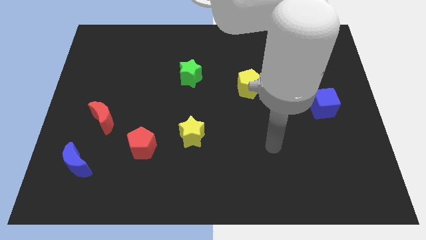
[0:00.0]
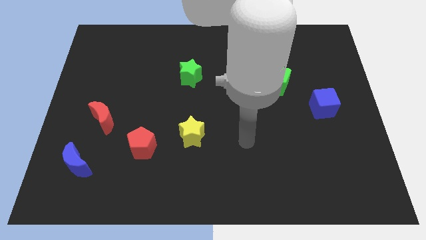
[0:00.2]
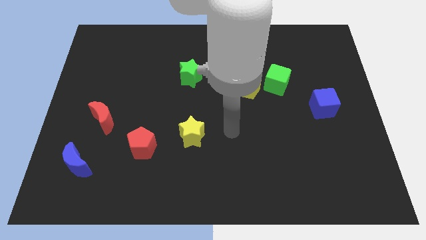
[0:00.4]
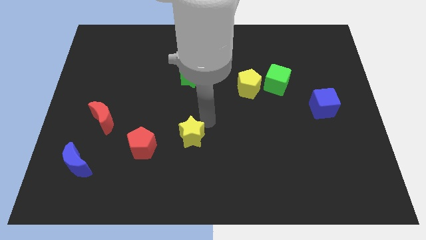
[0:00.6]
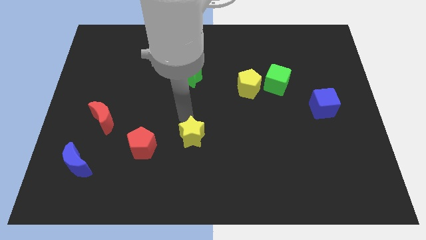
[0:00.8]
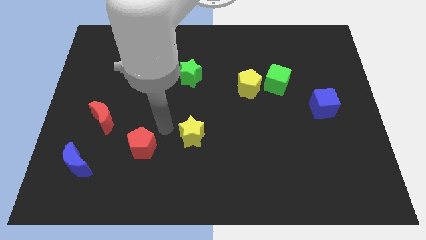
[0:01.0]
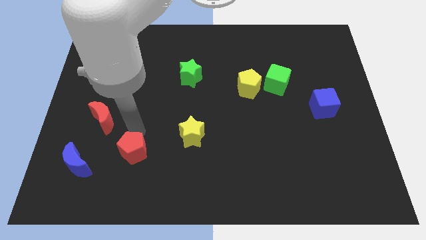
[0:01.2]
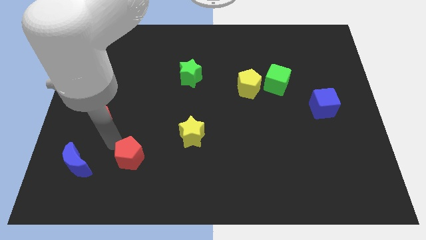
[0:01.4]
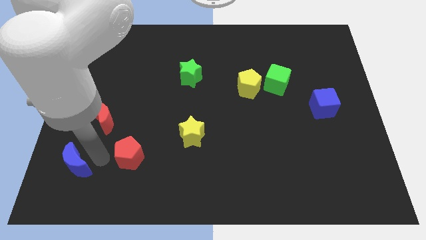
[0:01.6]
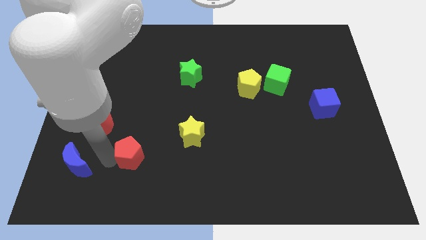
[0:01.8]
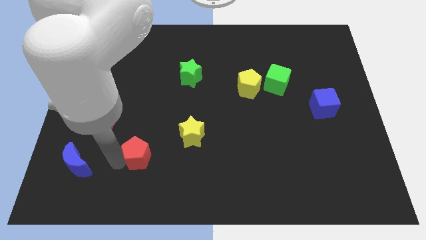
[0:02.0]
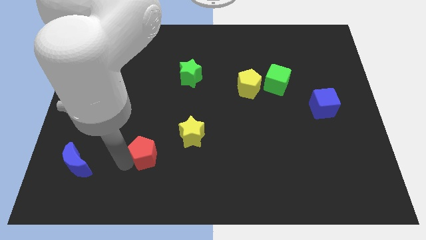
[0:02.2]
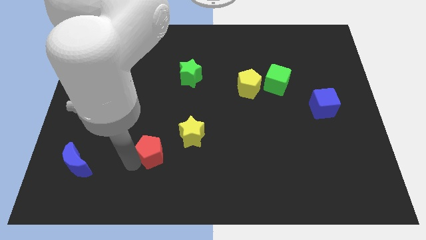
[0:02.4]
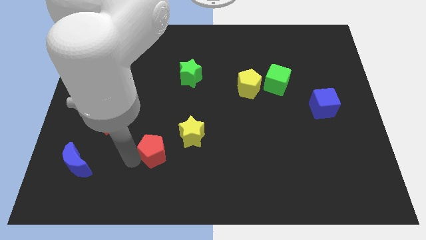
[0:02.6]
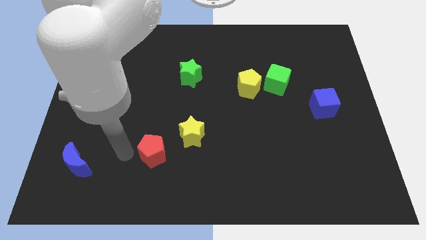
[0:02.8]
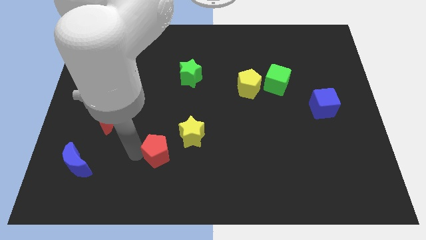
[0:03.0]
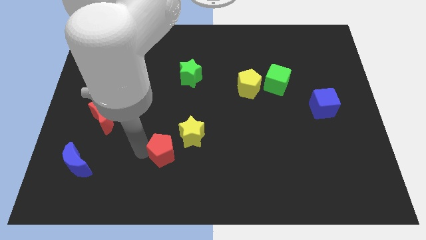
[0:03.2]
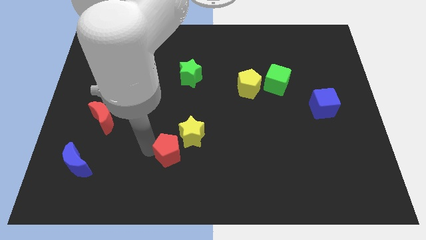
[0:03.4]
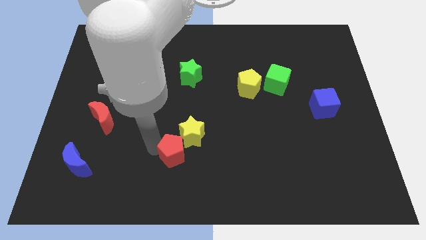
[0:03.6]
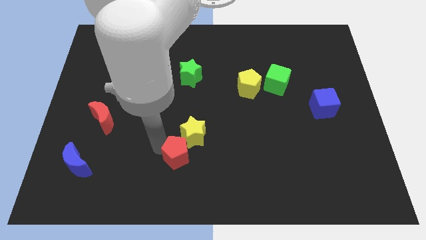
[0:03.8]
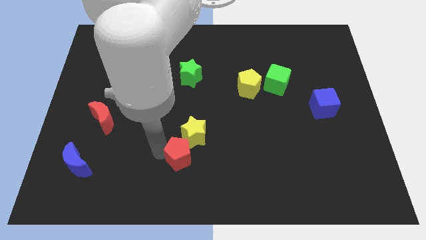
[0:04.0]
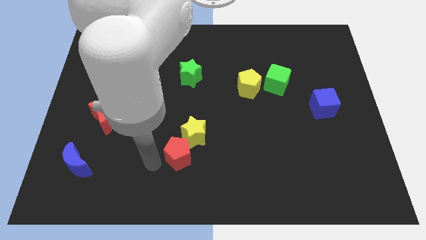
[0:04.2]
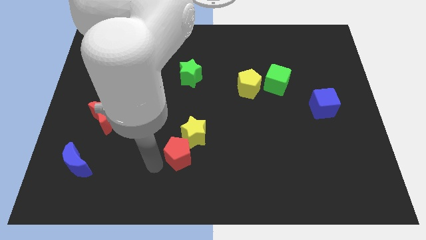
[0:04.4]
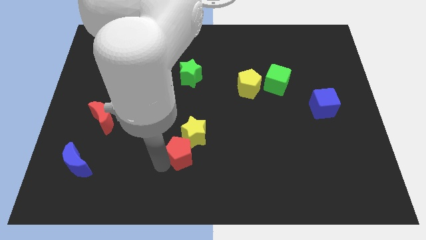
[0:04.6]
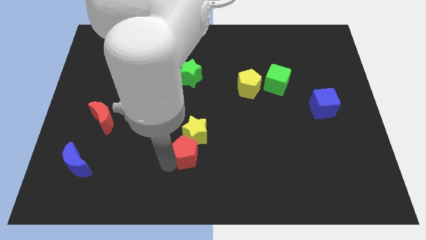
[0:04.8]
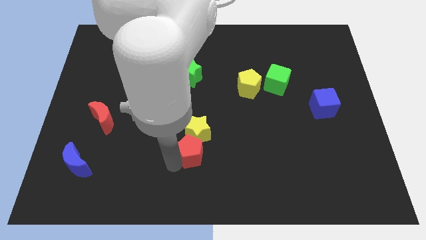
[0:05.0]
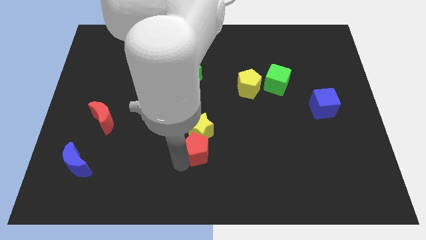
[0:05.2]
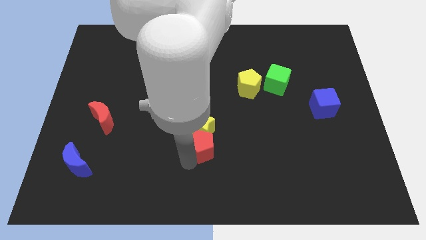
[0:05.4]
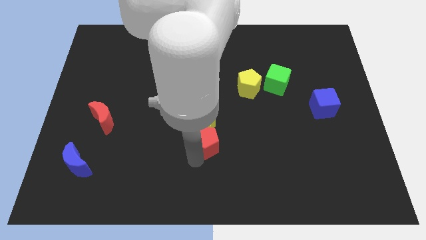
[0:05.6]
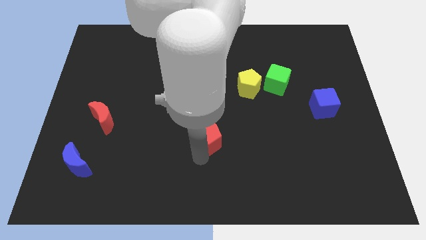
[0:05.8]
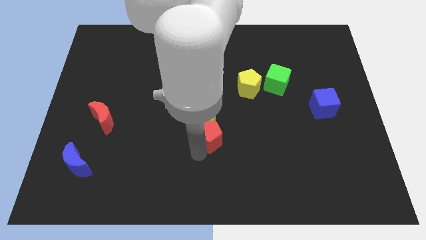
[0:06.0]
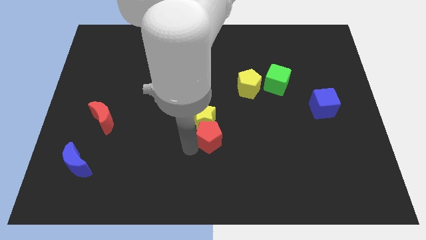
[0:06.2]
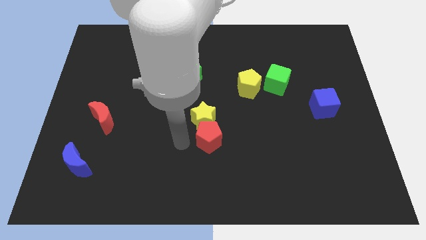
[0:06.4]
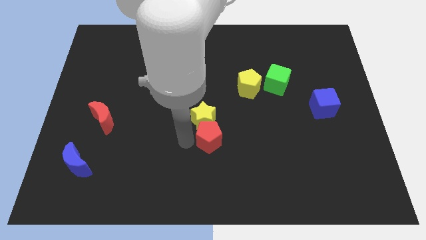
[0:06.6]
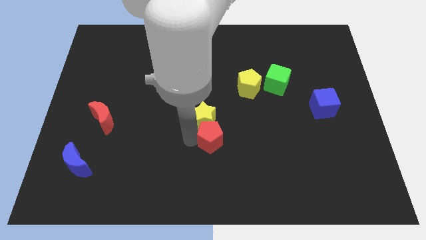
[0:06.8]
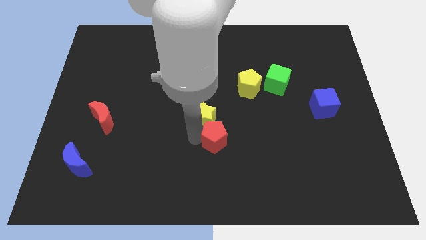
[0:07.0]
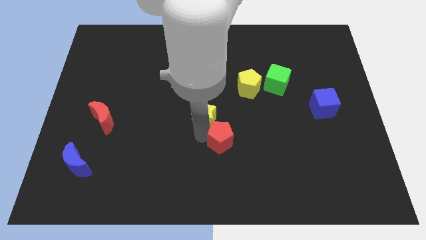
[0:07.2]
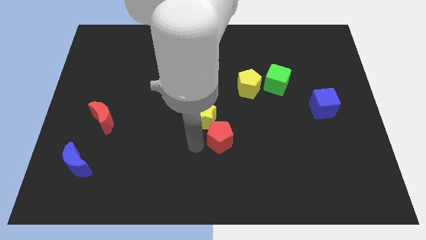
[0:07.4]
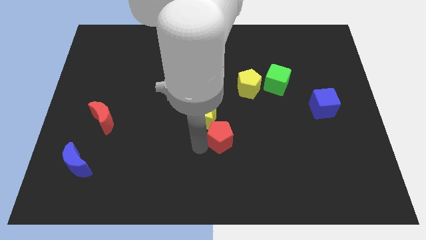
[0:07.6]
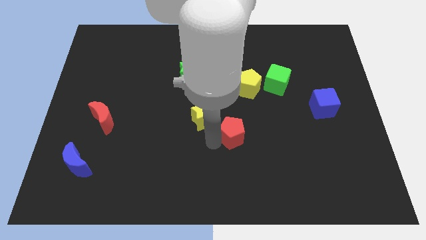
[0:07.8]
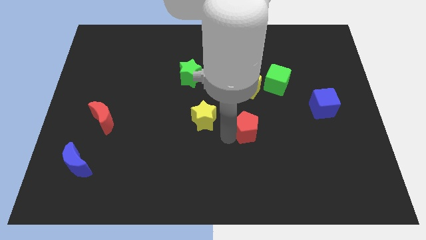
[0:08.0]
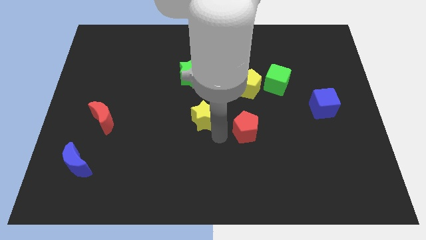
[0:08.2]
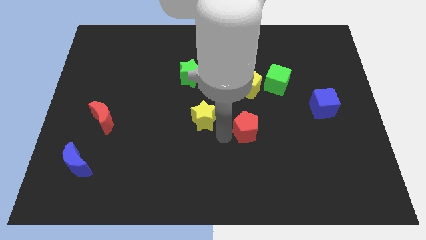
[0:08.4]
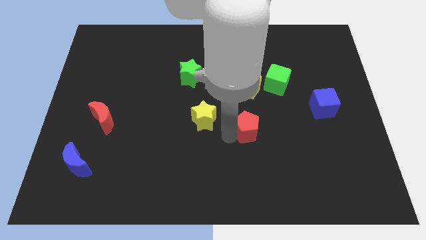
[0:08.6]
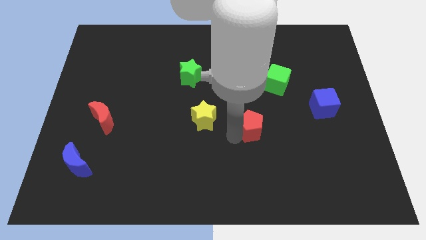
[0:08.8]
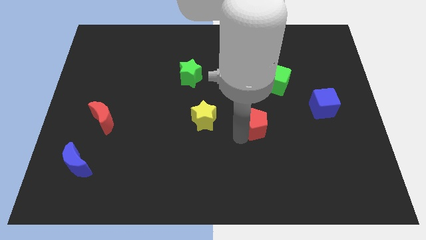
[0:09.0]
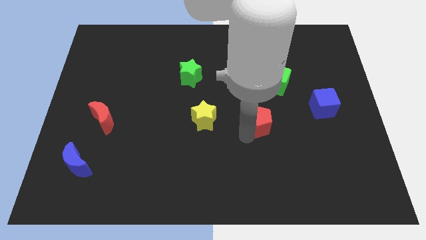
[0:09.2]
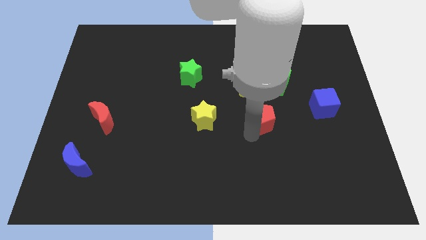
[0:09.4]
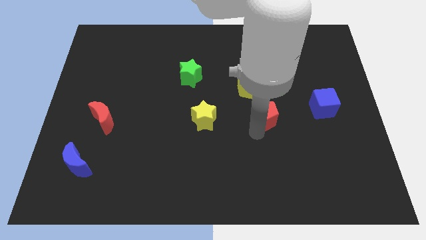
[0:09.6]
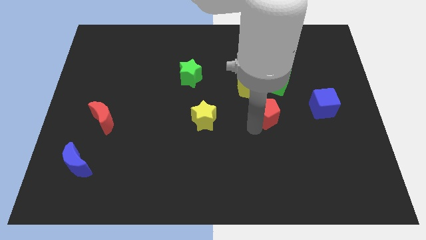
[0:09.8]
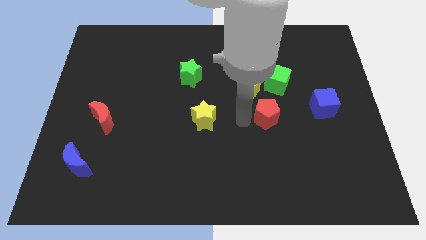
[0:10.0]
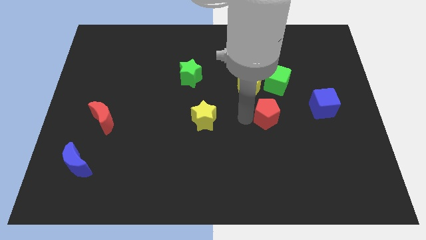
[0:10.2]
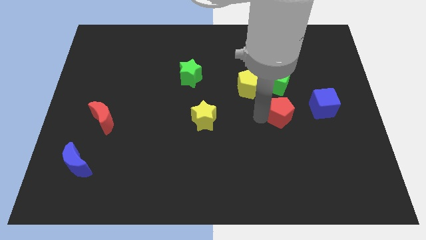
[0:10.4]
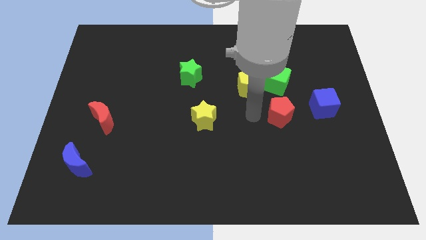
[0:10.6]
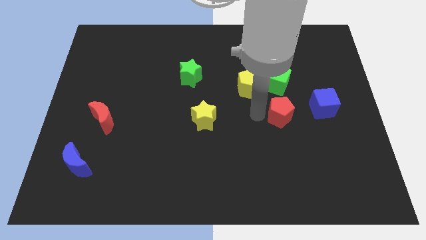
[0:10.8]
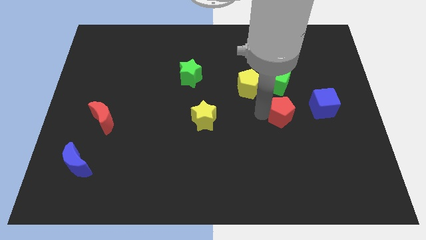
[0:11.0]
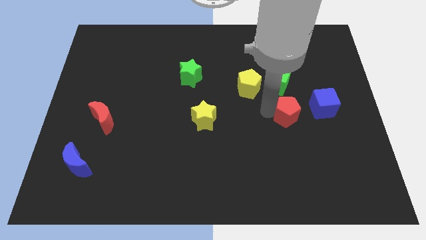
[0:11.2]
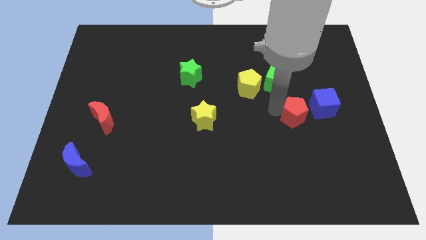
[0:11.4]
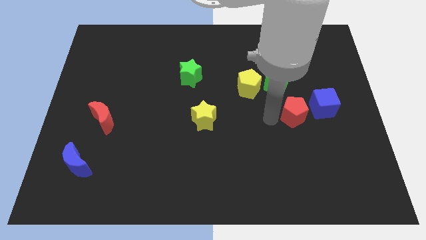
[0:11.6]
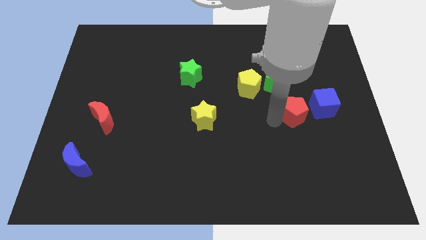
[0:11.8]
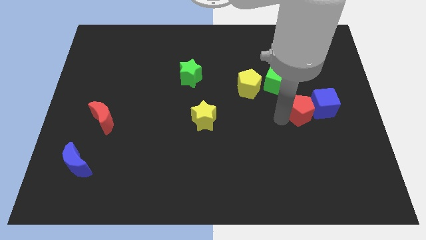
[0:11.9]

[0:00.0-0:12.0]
move the red pentagon close to the blue cube

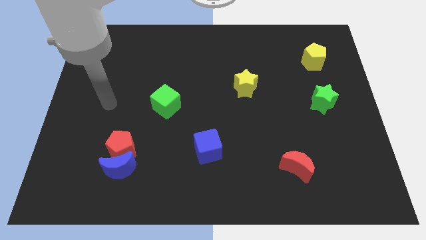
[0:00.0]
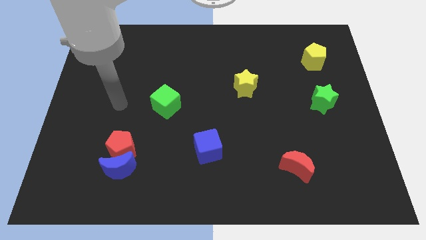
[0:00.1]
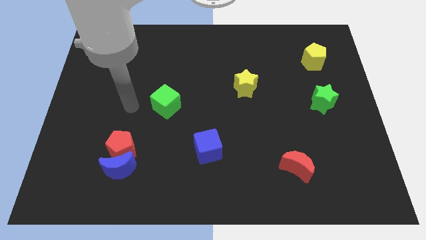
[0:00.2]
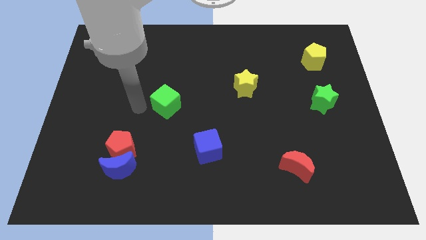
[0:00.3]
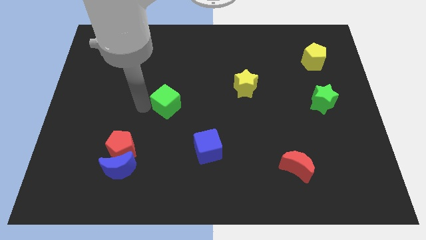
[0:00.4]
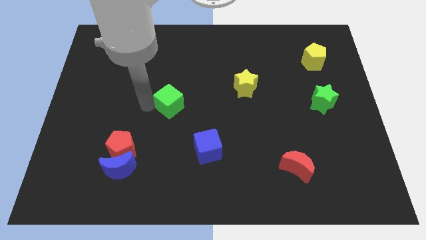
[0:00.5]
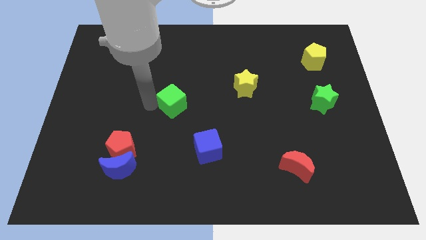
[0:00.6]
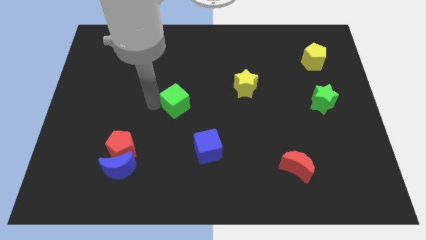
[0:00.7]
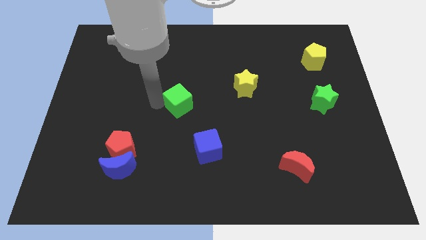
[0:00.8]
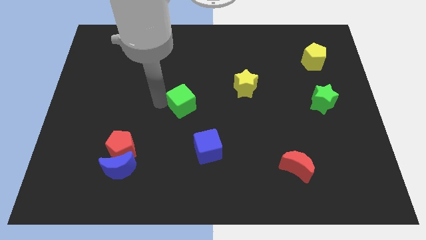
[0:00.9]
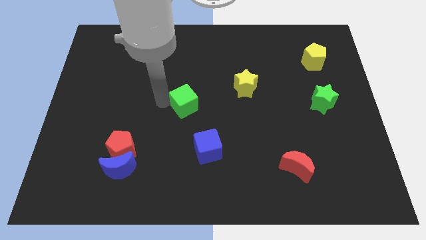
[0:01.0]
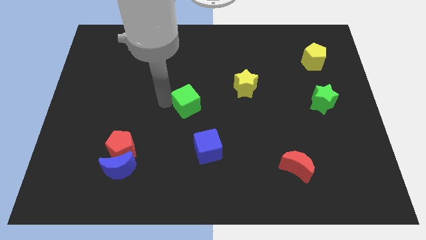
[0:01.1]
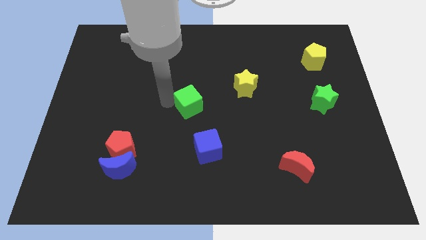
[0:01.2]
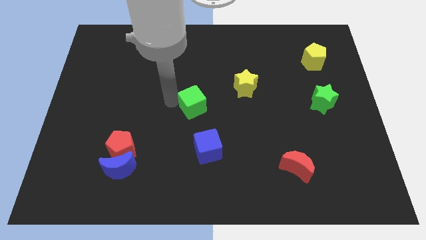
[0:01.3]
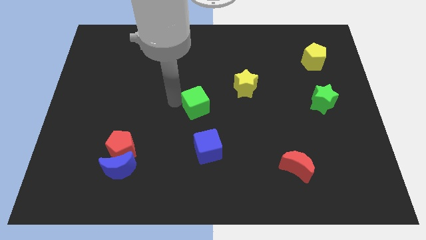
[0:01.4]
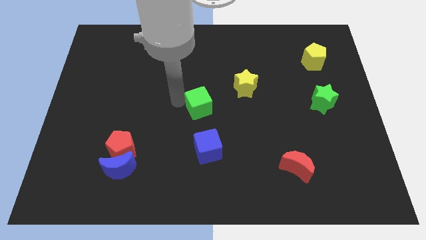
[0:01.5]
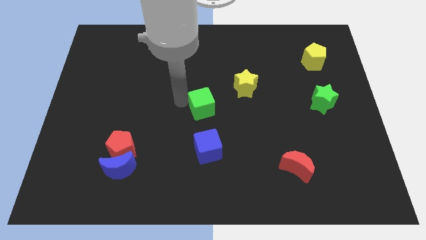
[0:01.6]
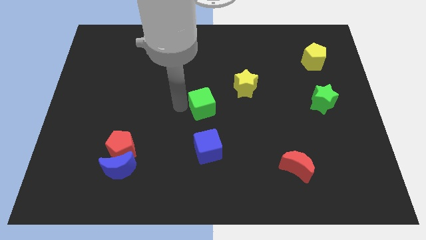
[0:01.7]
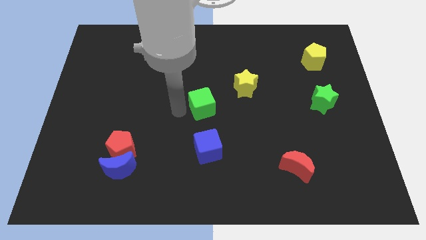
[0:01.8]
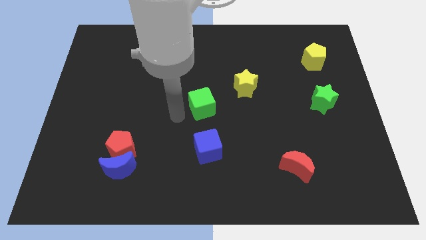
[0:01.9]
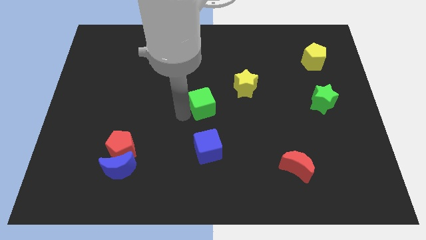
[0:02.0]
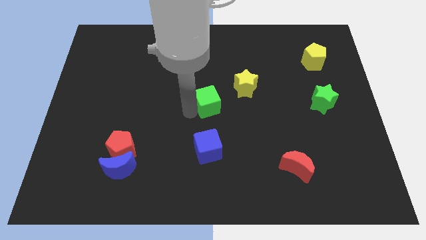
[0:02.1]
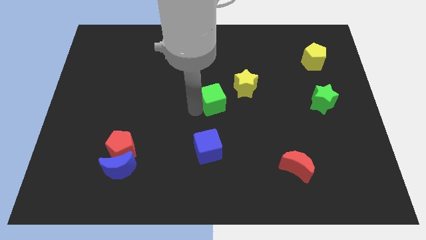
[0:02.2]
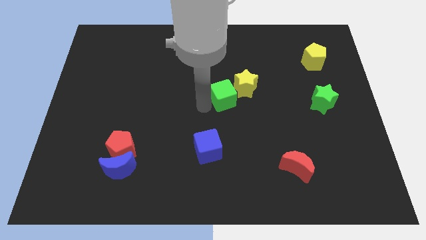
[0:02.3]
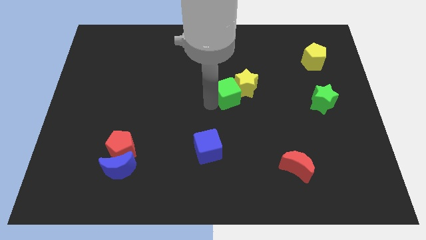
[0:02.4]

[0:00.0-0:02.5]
push the green cube close to the yellow star
